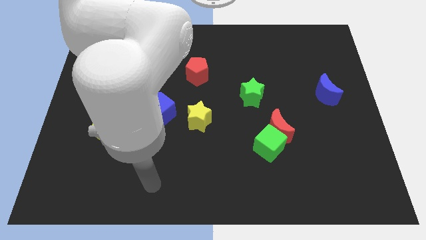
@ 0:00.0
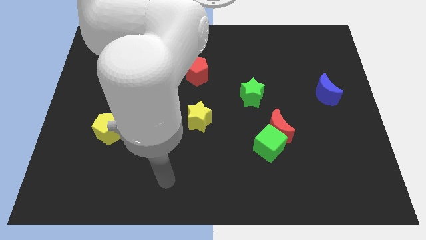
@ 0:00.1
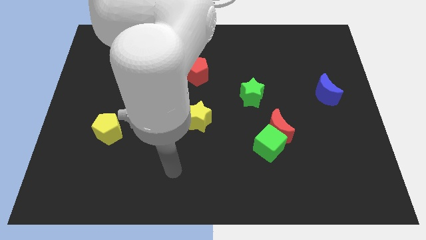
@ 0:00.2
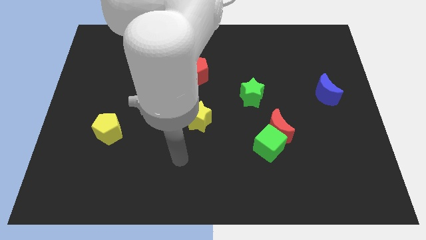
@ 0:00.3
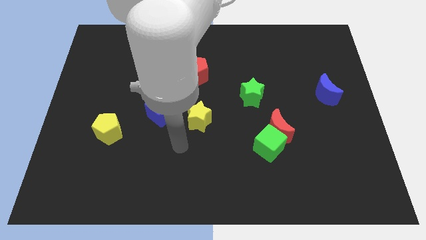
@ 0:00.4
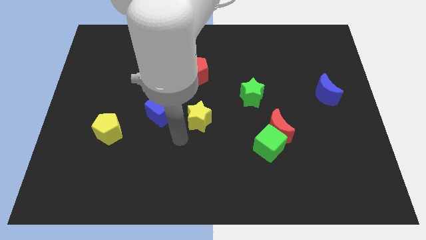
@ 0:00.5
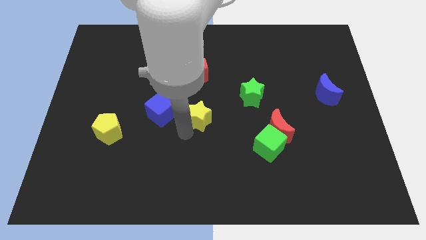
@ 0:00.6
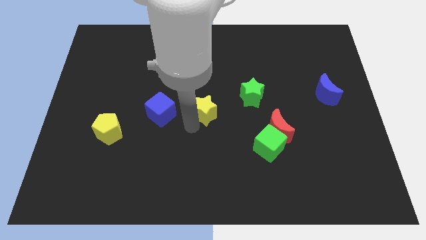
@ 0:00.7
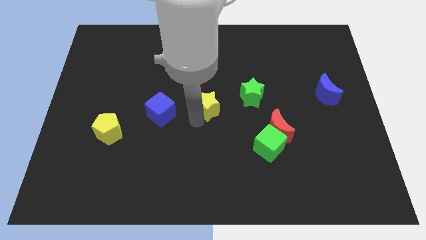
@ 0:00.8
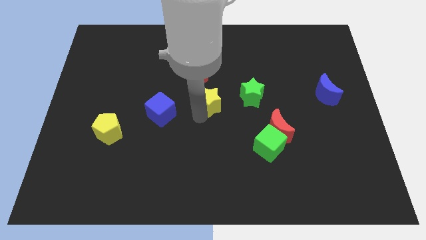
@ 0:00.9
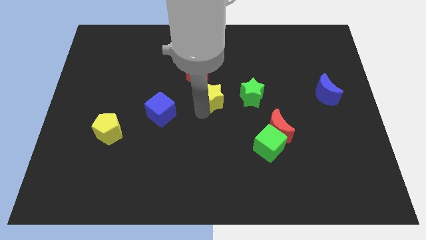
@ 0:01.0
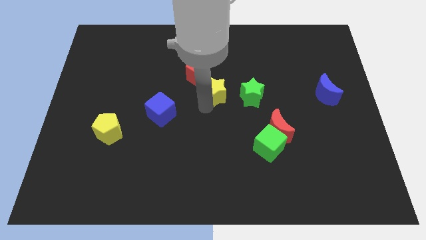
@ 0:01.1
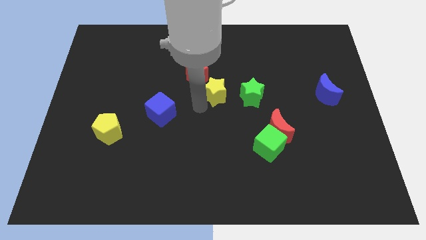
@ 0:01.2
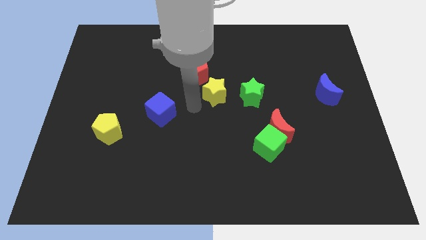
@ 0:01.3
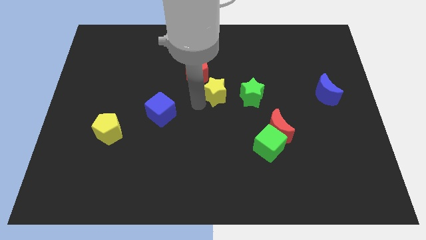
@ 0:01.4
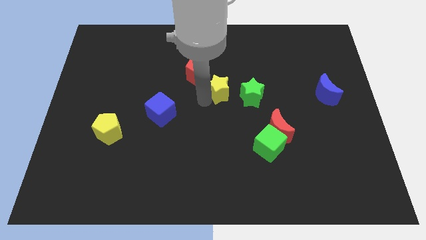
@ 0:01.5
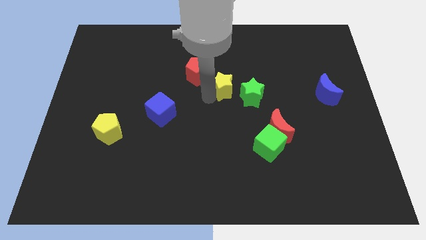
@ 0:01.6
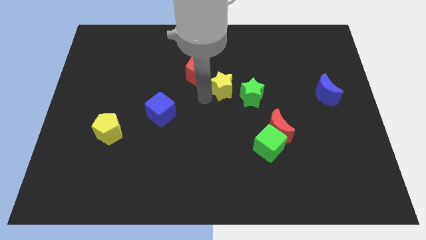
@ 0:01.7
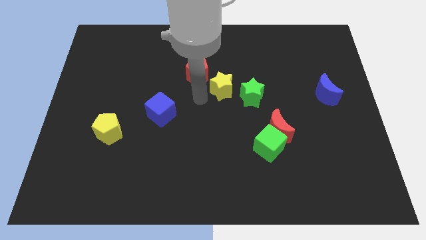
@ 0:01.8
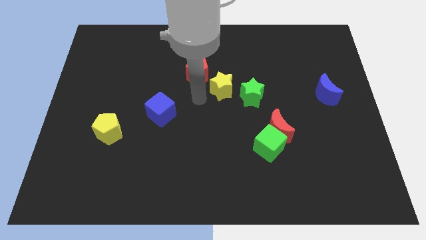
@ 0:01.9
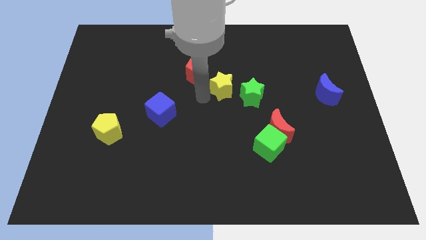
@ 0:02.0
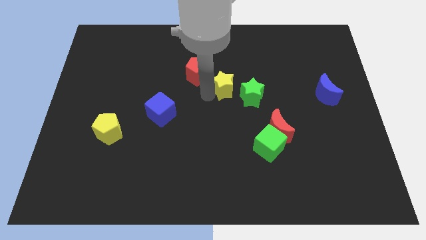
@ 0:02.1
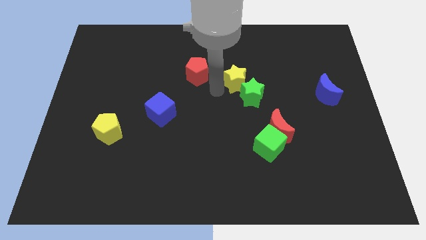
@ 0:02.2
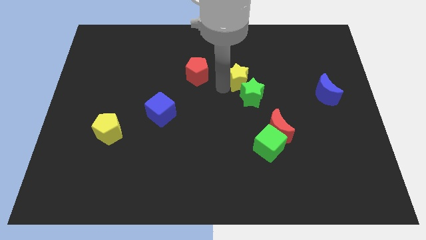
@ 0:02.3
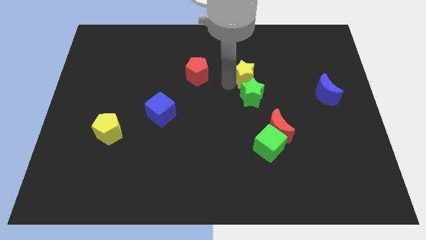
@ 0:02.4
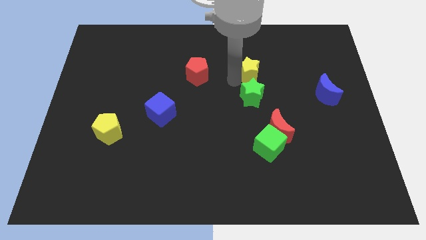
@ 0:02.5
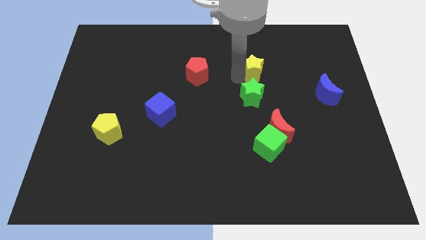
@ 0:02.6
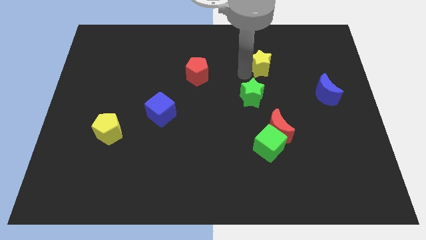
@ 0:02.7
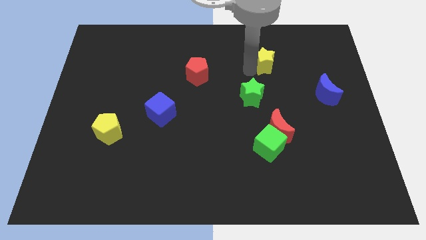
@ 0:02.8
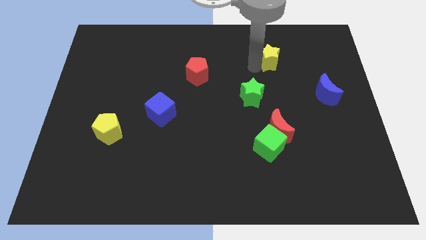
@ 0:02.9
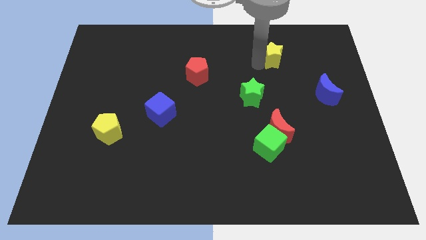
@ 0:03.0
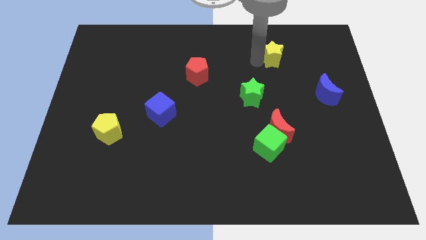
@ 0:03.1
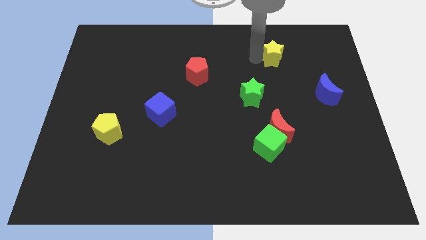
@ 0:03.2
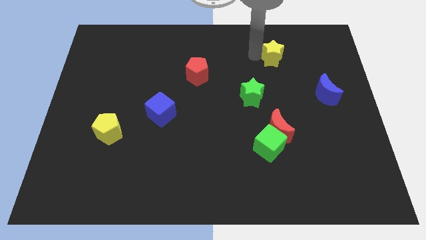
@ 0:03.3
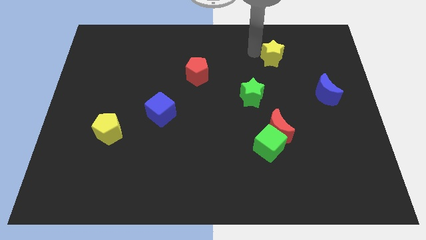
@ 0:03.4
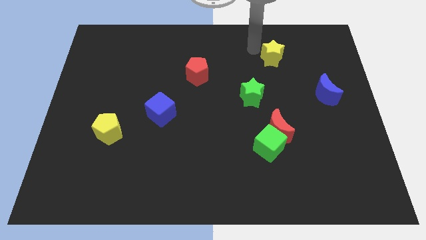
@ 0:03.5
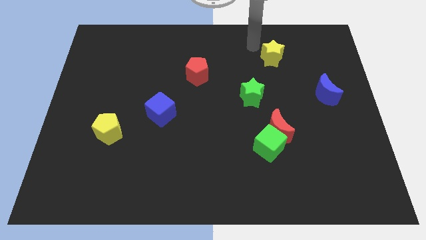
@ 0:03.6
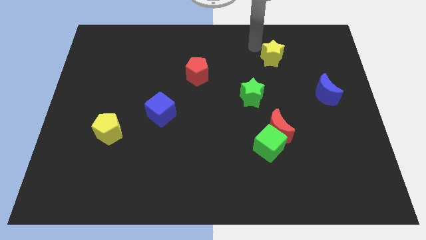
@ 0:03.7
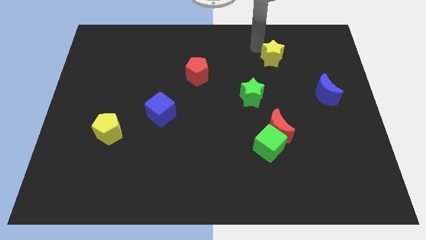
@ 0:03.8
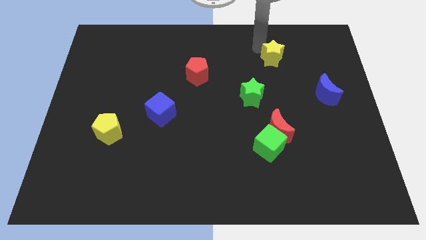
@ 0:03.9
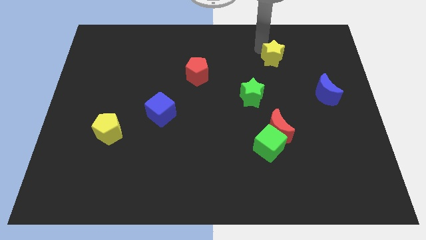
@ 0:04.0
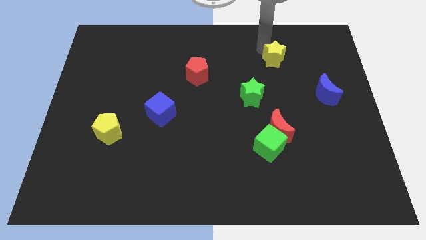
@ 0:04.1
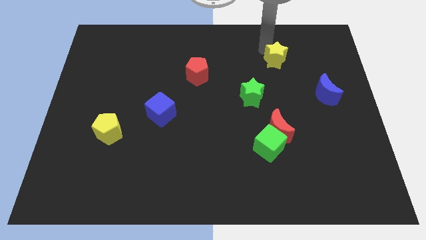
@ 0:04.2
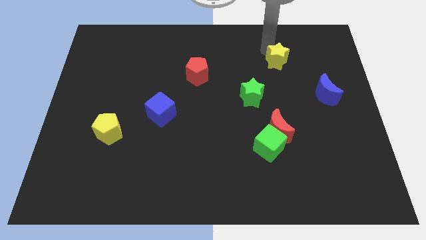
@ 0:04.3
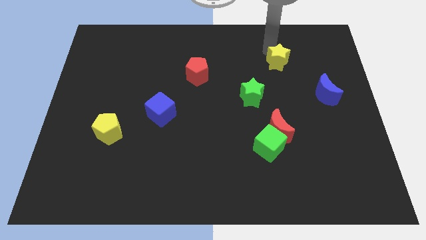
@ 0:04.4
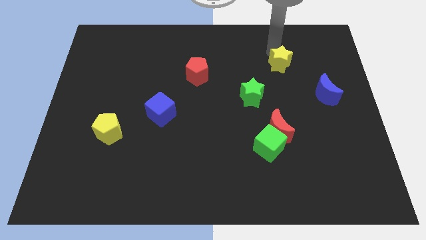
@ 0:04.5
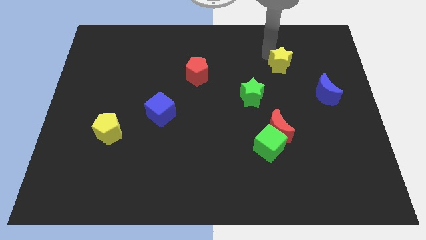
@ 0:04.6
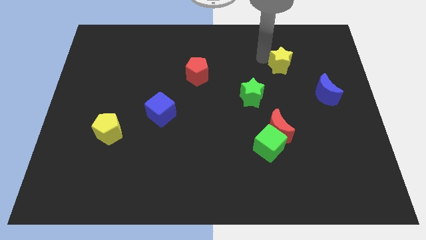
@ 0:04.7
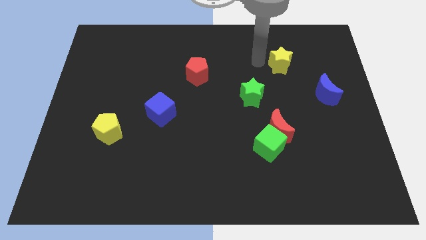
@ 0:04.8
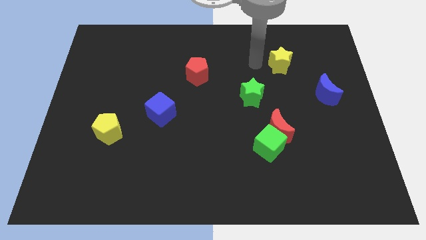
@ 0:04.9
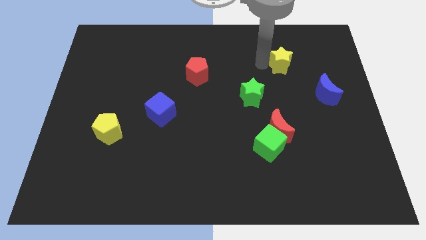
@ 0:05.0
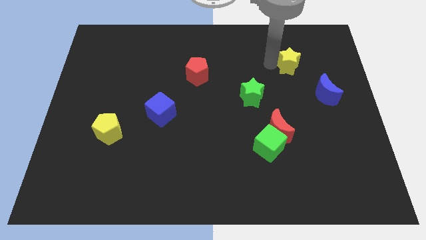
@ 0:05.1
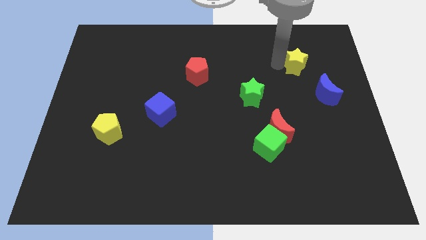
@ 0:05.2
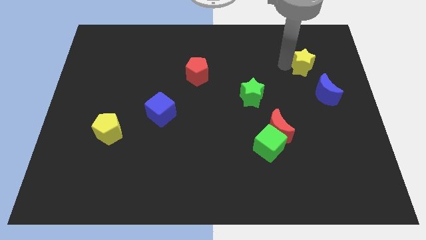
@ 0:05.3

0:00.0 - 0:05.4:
move the yellow star to the top side of the blue moon

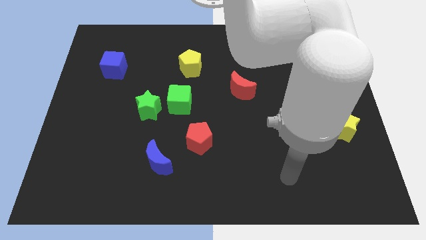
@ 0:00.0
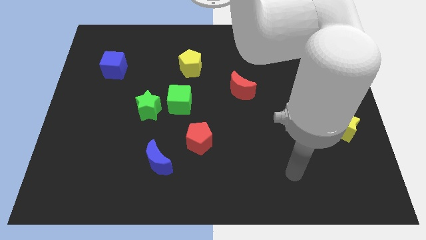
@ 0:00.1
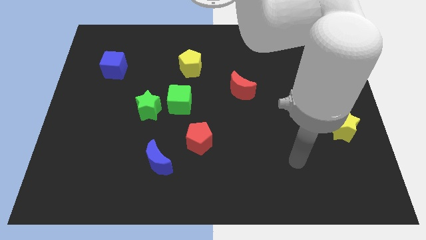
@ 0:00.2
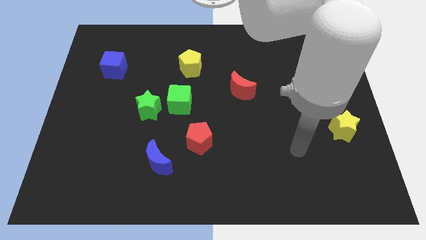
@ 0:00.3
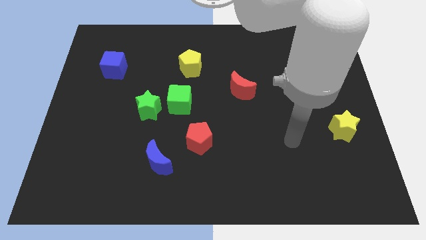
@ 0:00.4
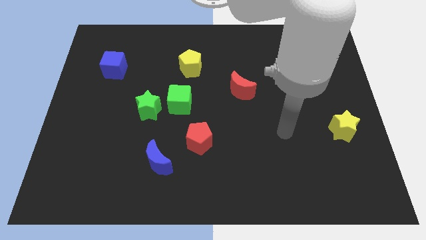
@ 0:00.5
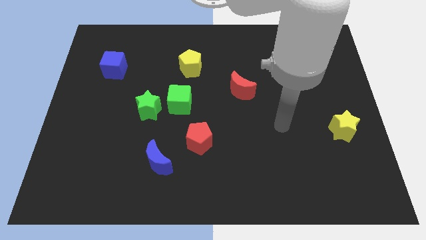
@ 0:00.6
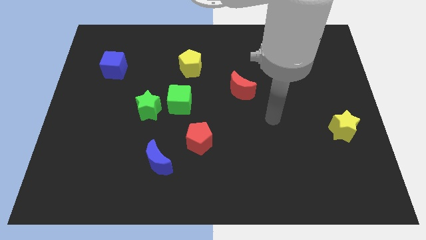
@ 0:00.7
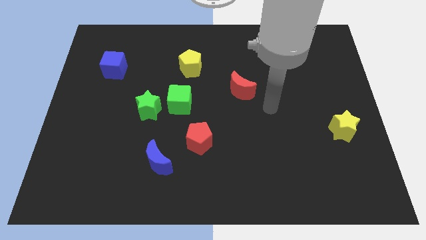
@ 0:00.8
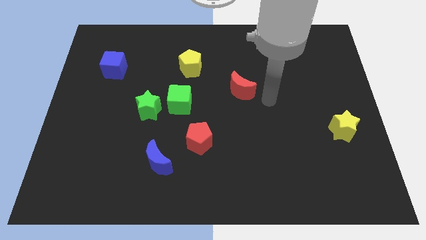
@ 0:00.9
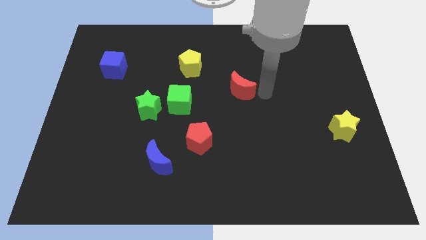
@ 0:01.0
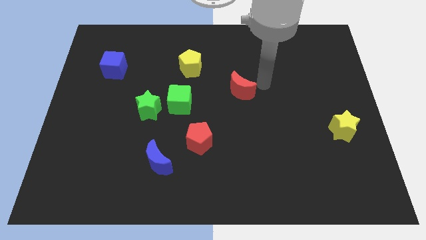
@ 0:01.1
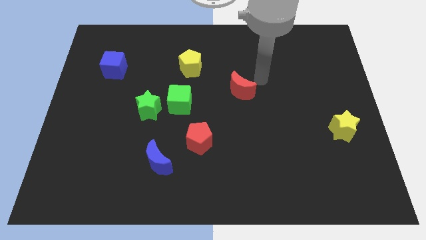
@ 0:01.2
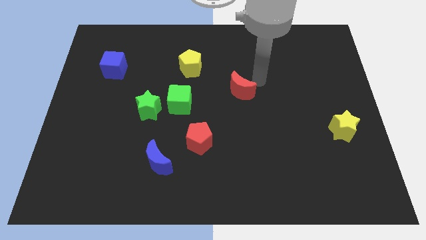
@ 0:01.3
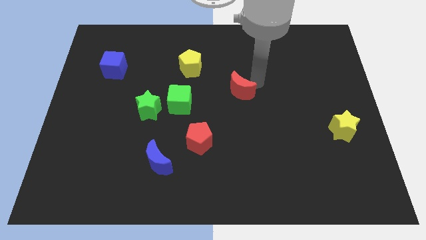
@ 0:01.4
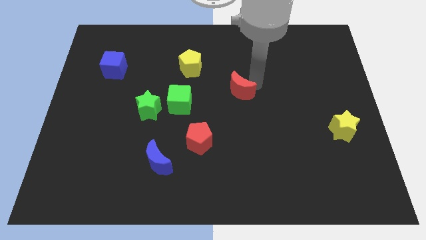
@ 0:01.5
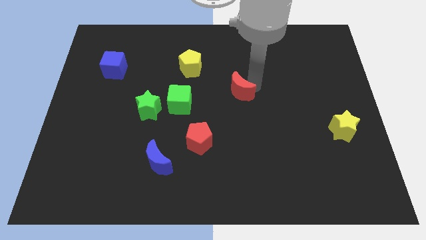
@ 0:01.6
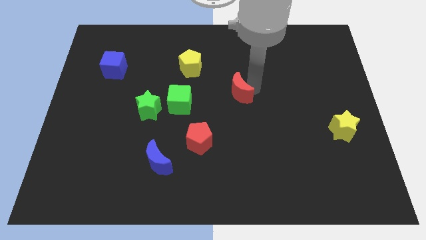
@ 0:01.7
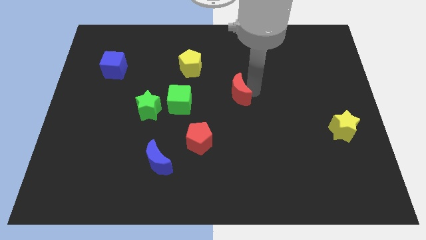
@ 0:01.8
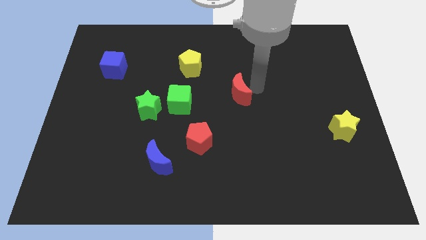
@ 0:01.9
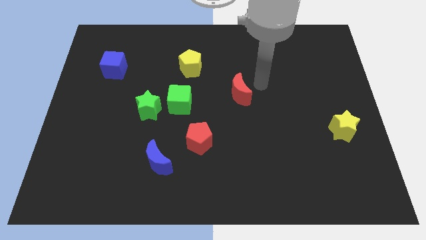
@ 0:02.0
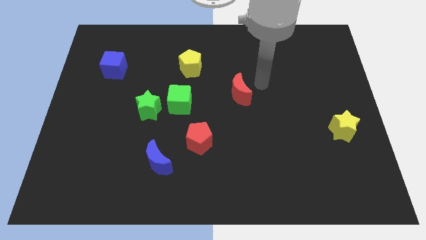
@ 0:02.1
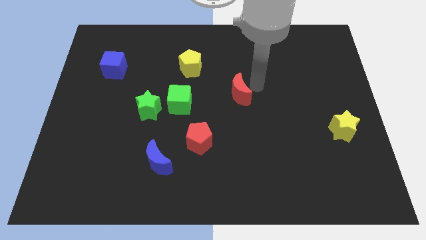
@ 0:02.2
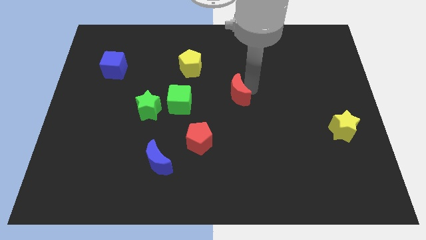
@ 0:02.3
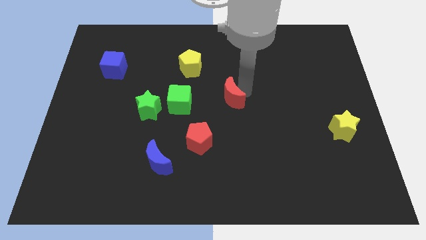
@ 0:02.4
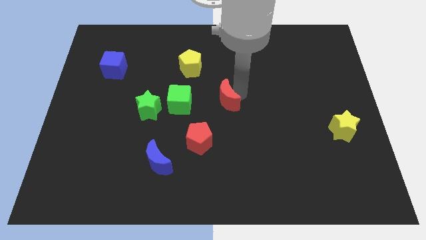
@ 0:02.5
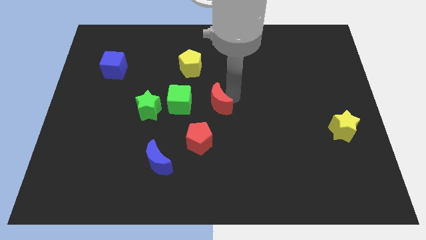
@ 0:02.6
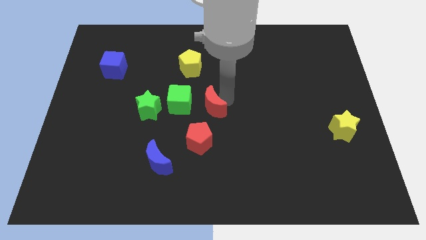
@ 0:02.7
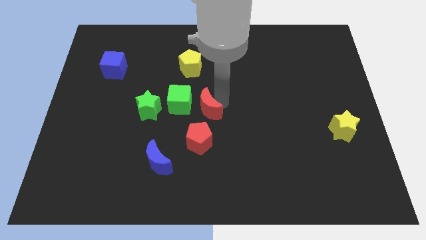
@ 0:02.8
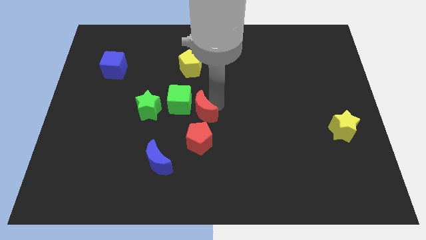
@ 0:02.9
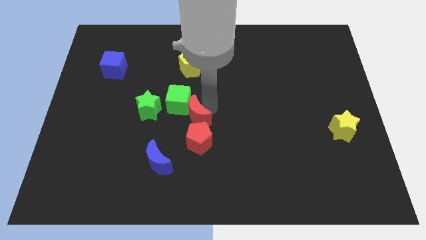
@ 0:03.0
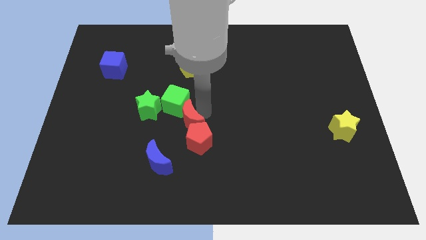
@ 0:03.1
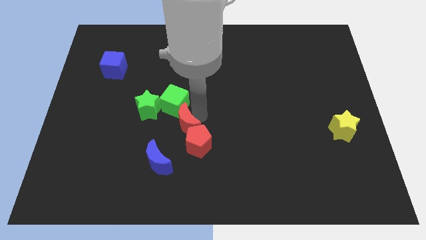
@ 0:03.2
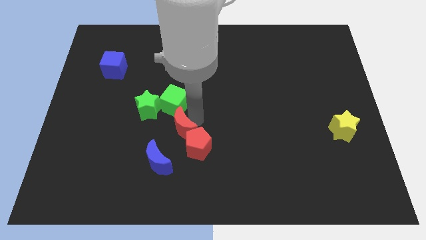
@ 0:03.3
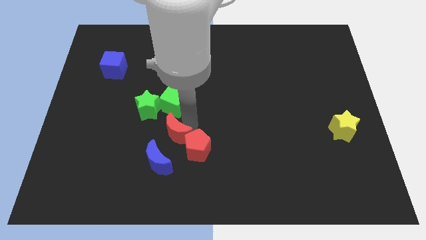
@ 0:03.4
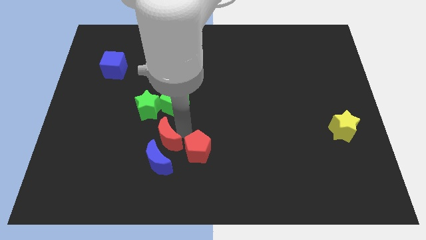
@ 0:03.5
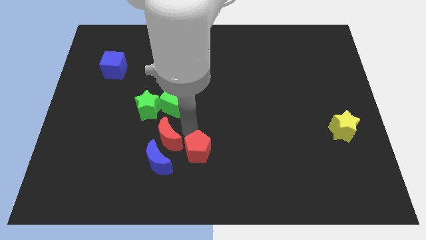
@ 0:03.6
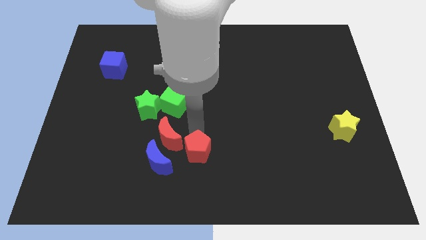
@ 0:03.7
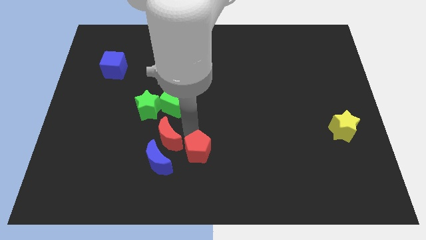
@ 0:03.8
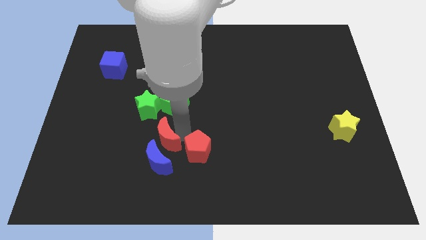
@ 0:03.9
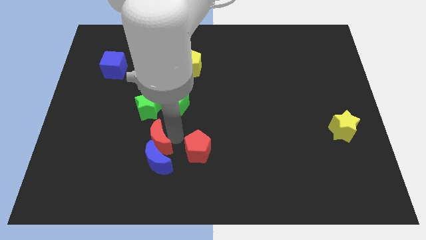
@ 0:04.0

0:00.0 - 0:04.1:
put the red moon below the green star
